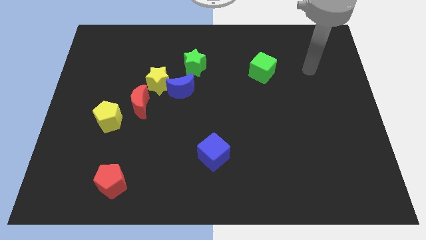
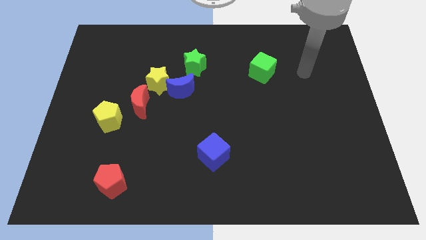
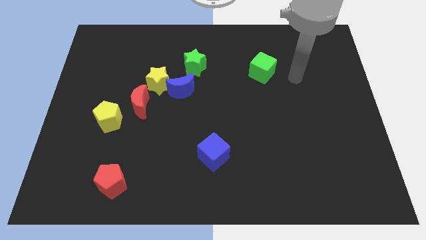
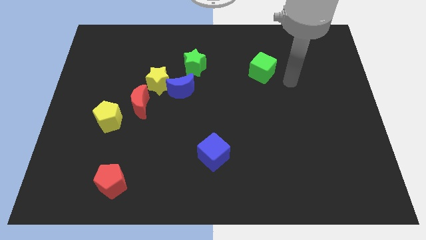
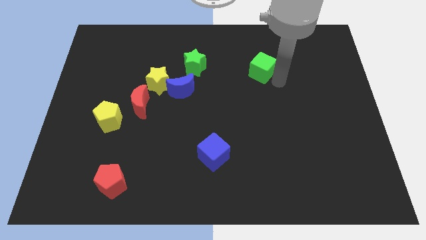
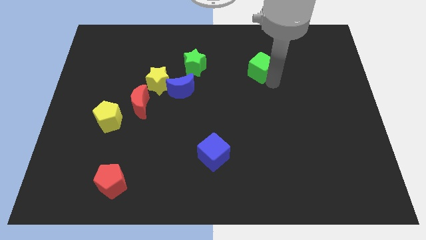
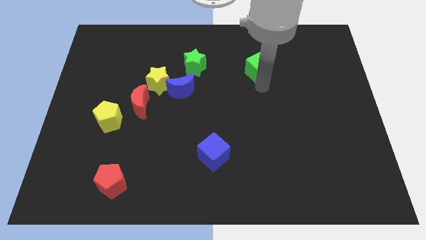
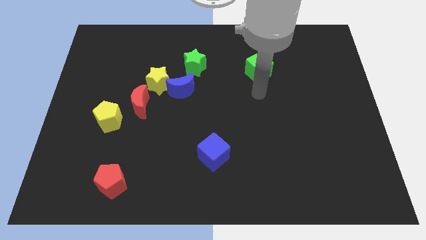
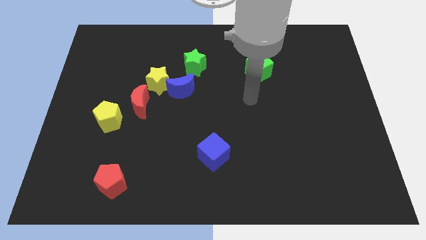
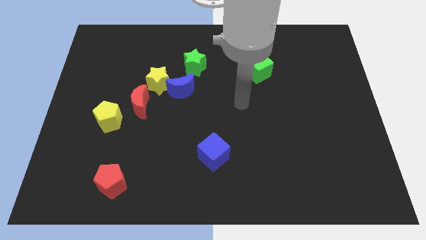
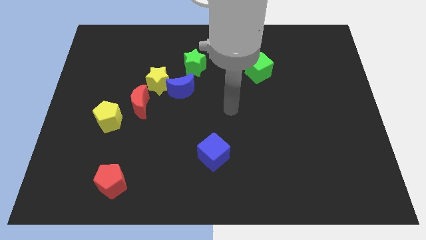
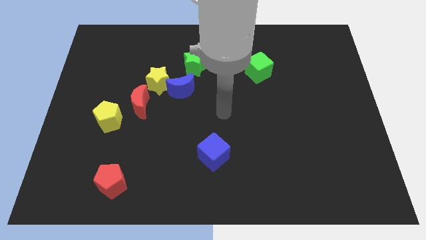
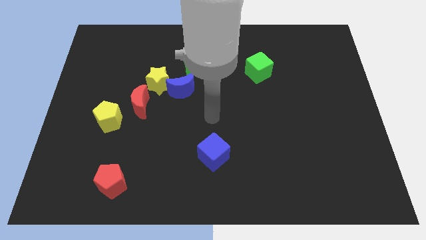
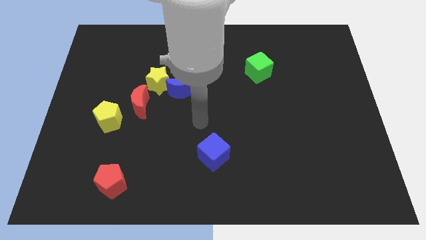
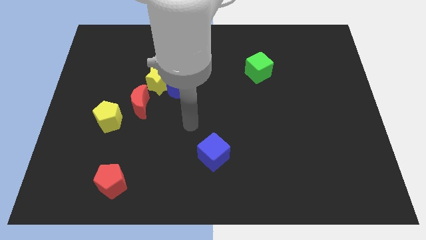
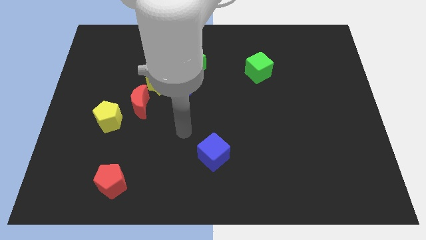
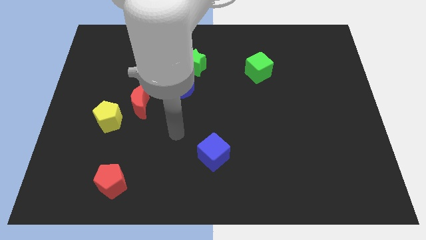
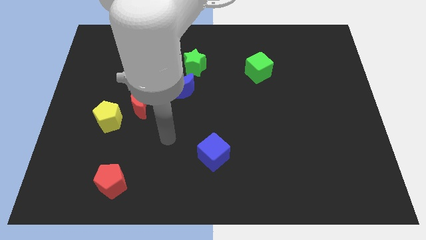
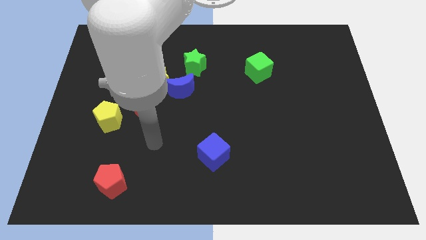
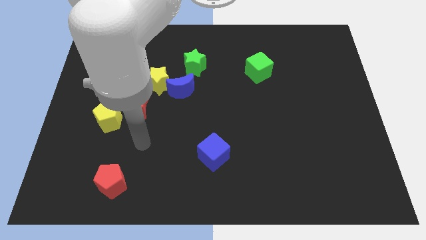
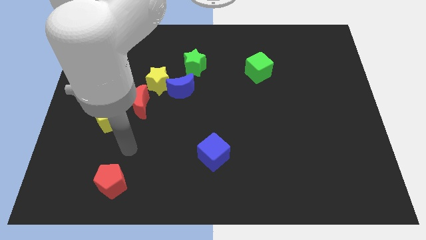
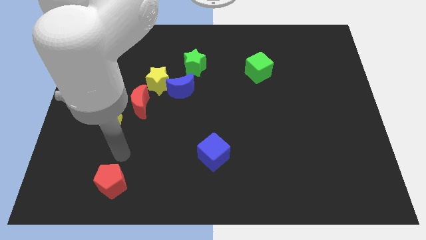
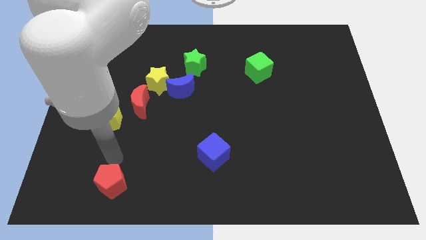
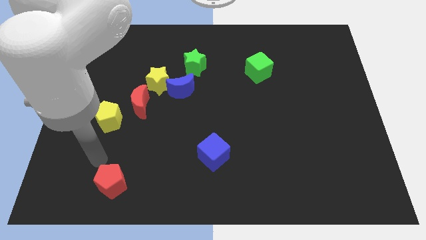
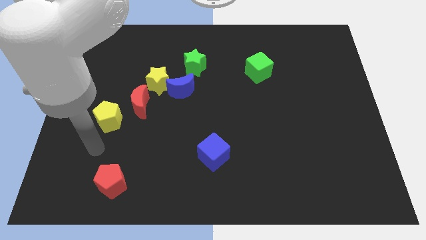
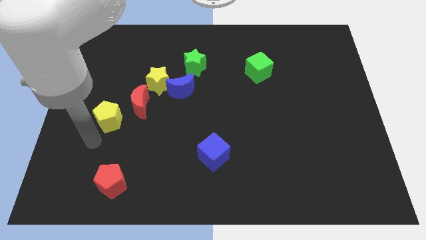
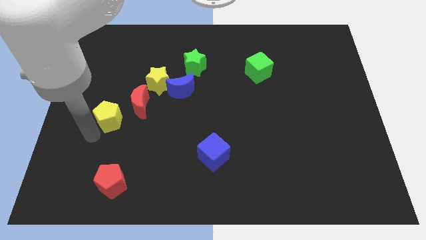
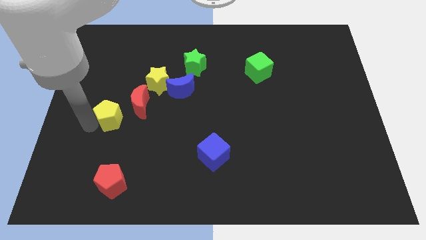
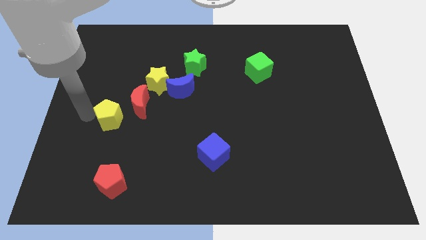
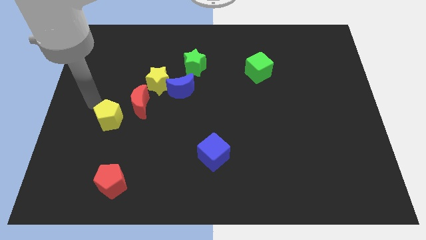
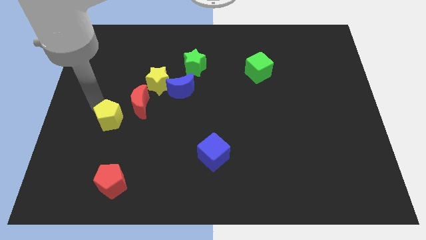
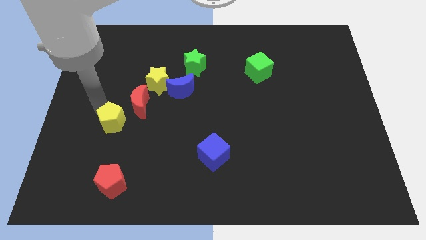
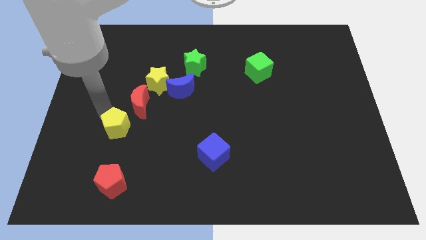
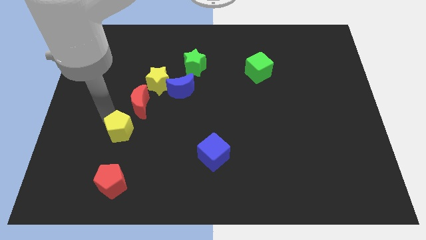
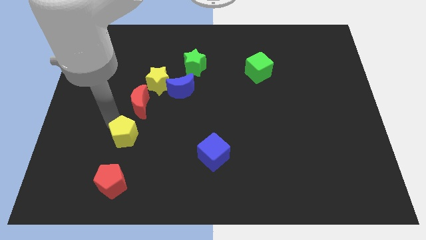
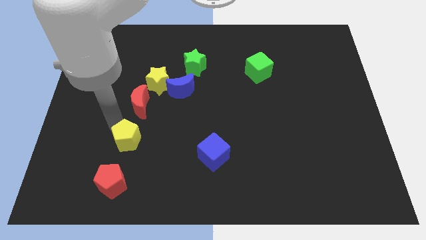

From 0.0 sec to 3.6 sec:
push the yellow pentagon downwards and right slightly

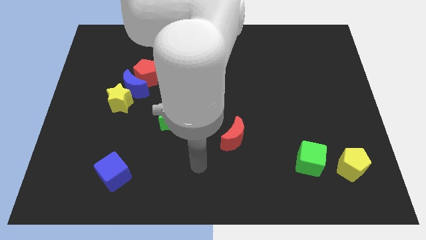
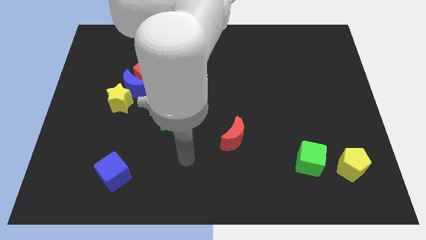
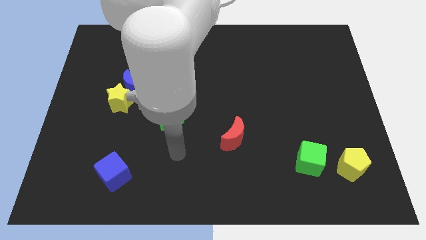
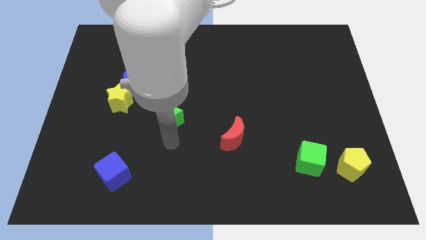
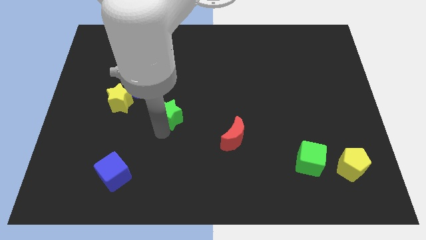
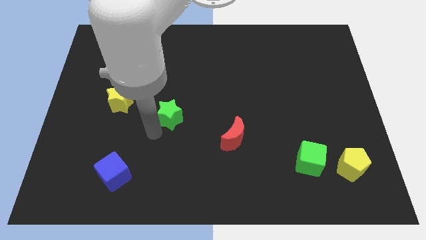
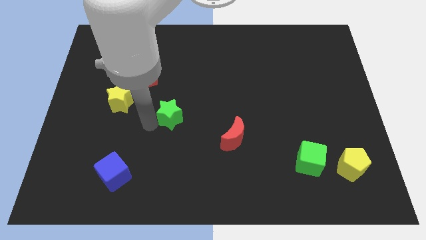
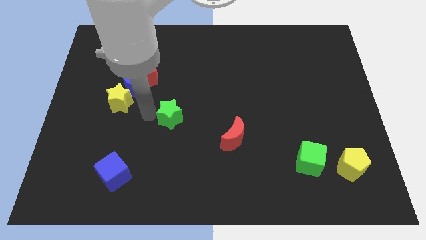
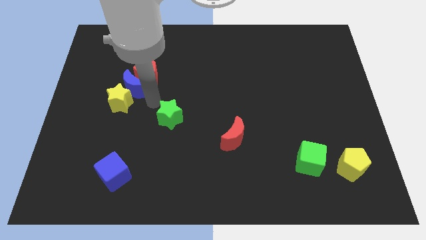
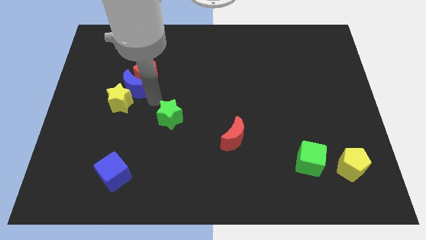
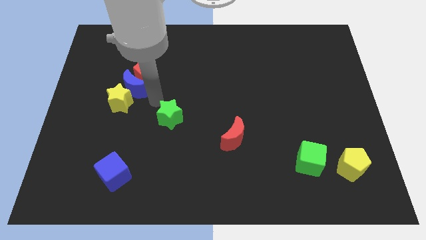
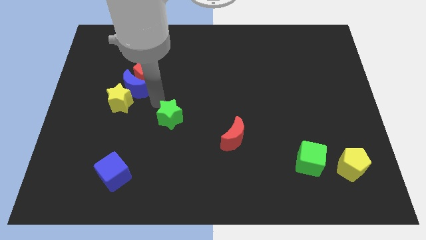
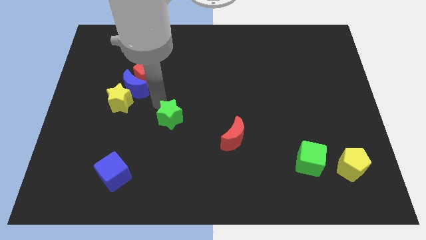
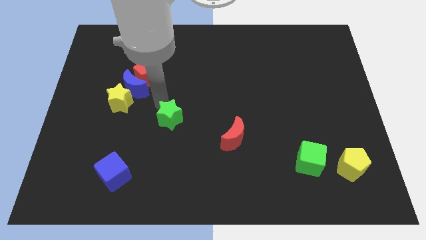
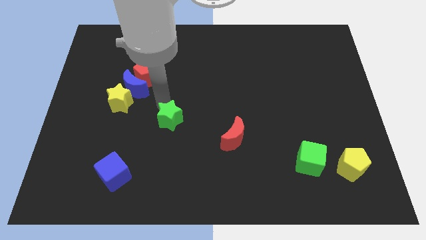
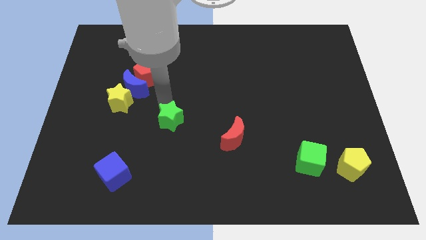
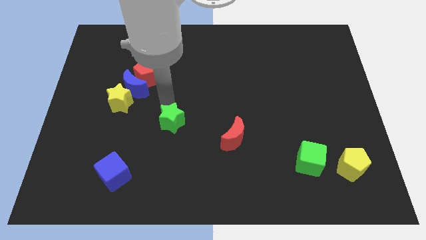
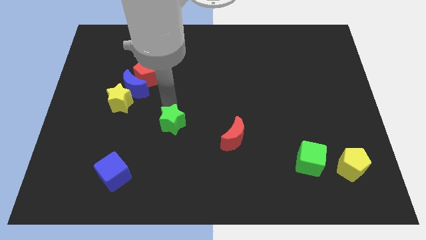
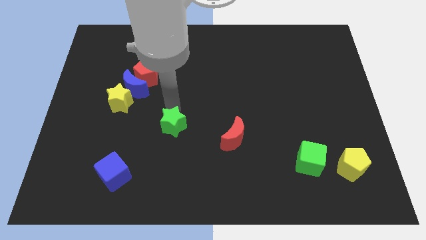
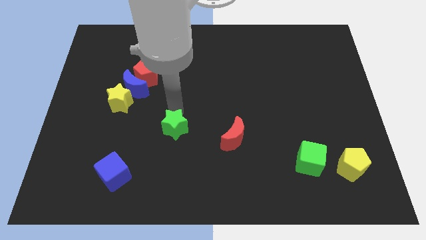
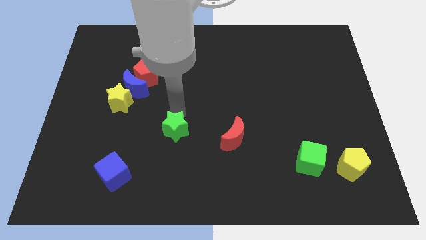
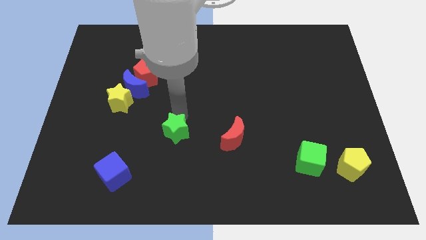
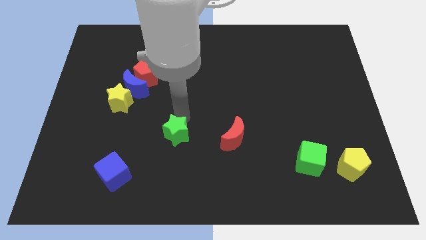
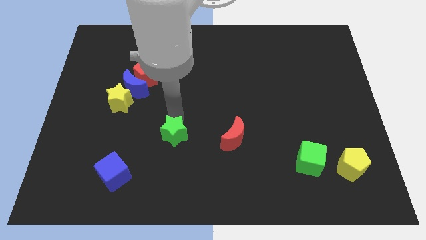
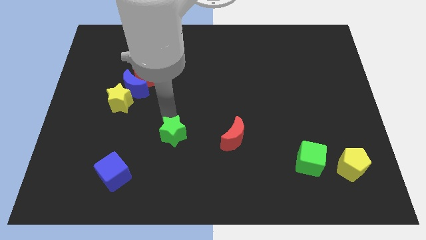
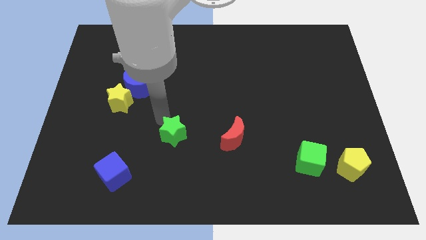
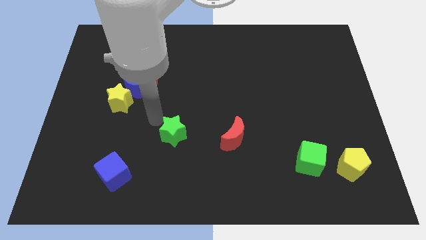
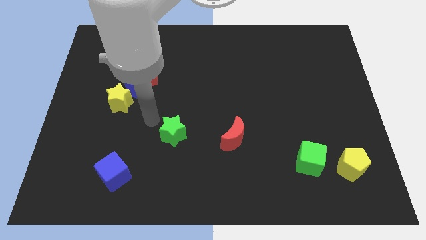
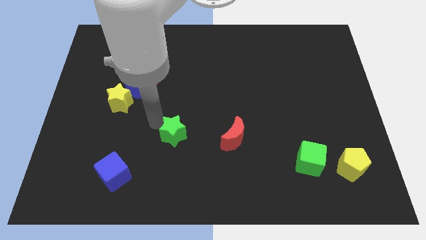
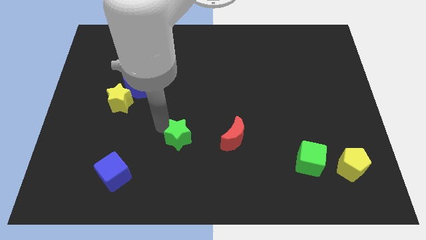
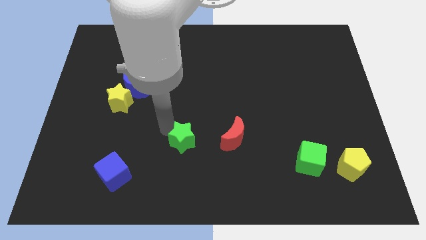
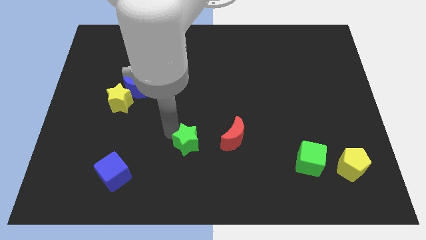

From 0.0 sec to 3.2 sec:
slightly push the green star diagonally downwards and to the right

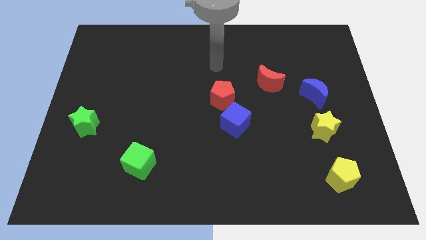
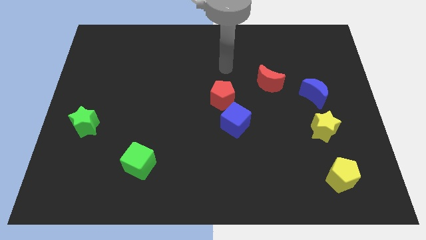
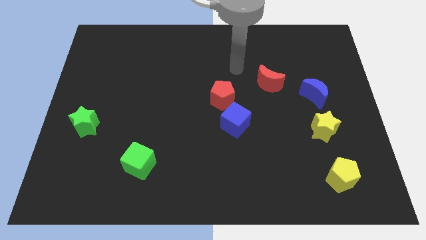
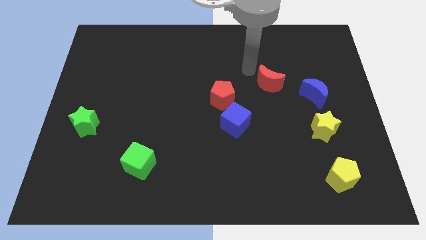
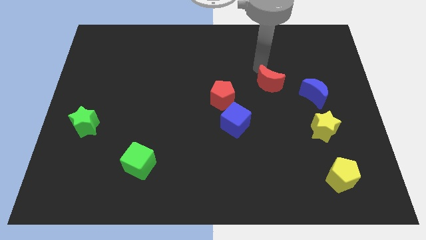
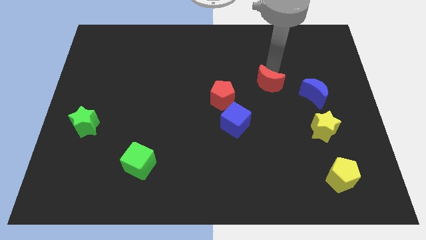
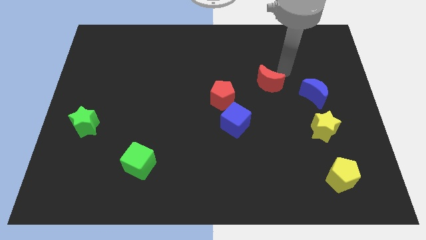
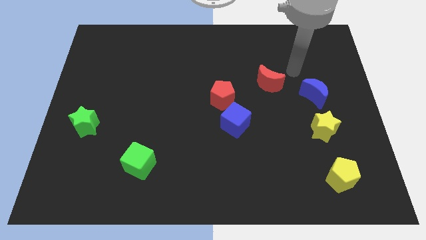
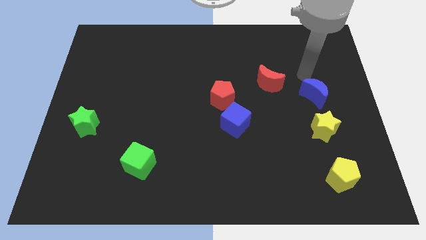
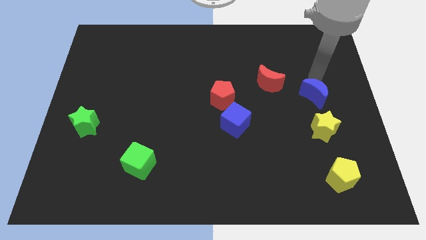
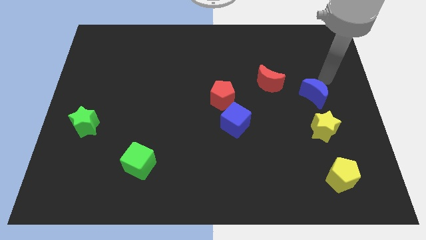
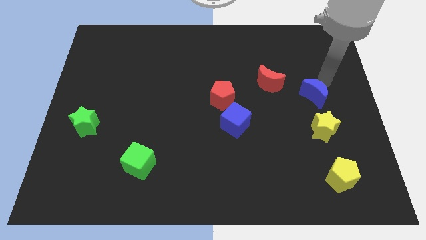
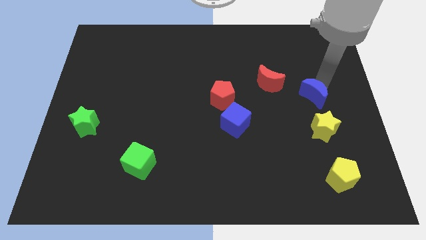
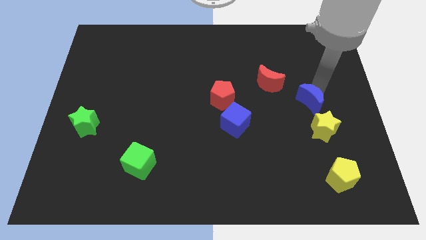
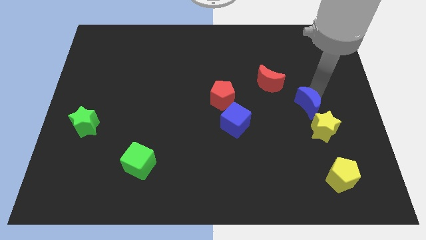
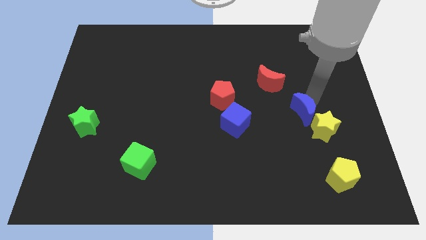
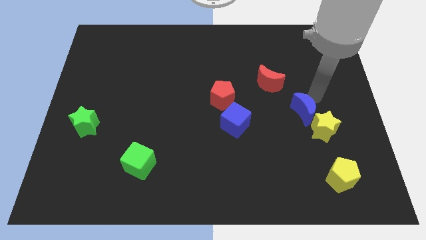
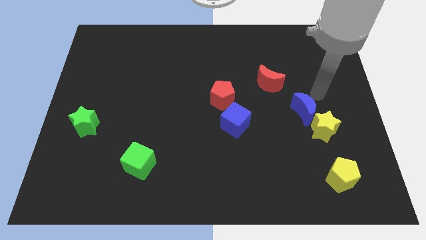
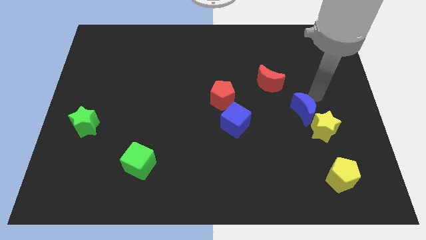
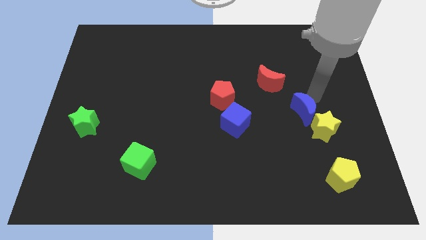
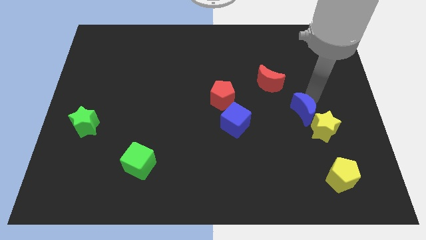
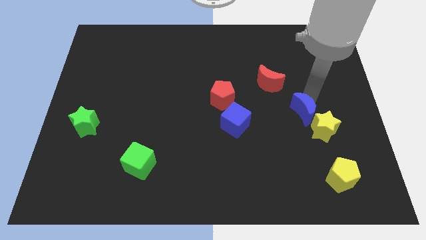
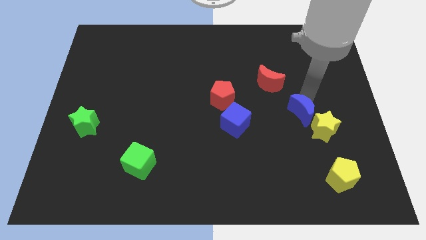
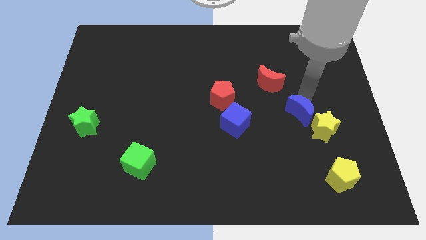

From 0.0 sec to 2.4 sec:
slightly slide the blue moon down and left
